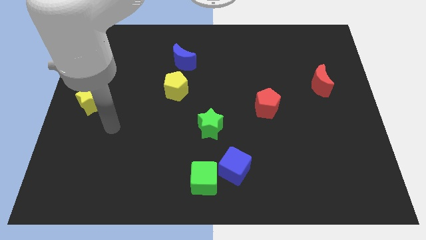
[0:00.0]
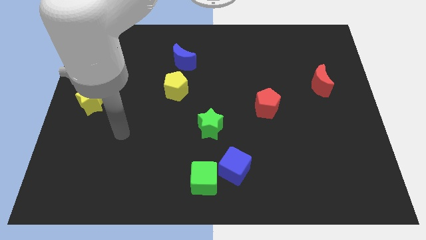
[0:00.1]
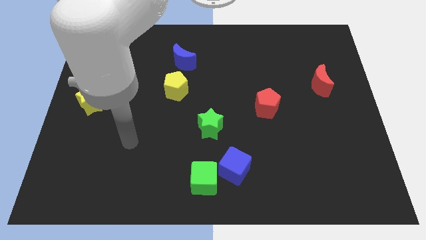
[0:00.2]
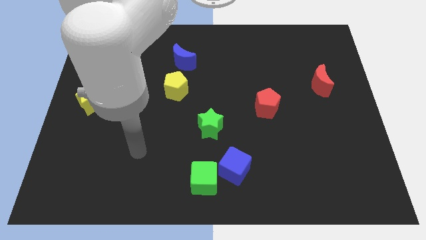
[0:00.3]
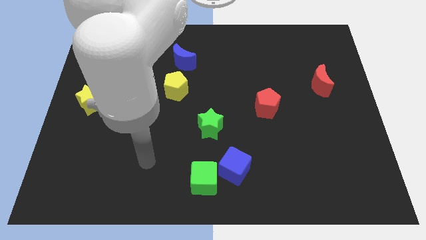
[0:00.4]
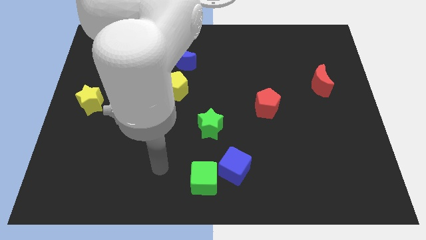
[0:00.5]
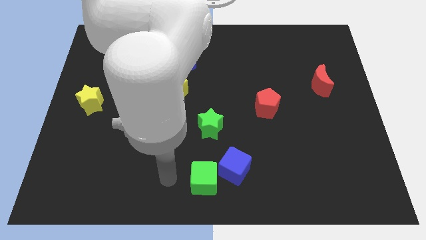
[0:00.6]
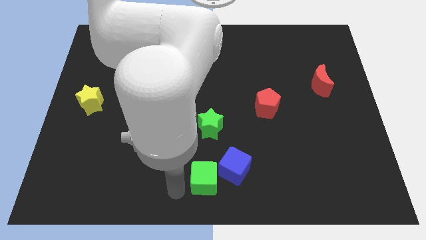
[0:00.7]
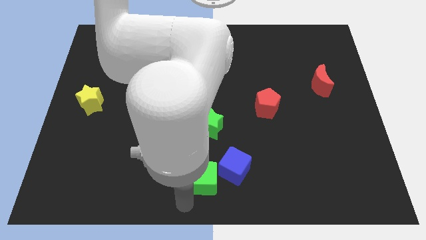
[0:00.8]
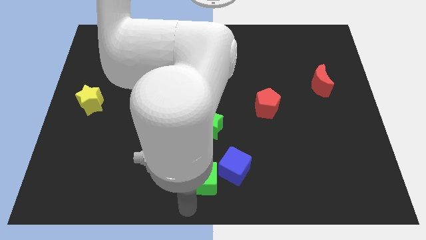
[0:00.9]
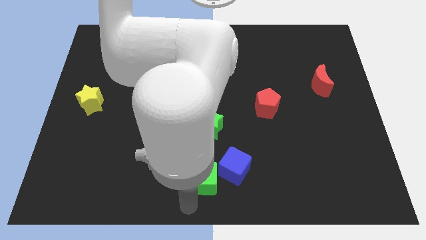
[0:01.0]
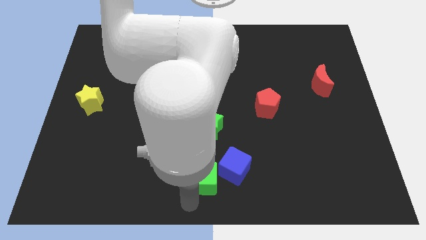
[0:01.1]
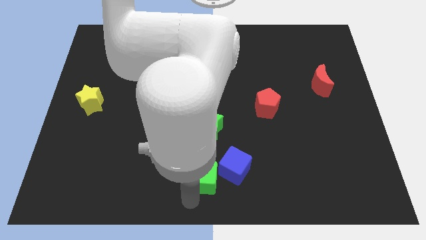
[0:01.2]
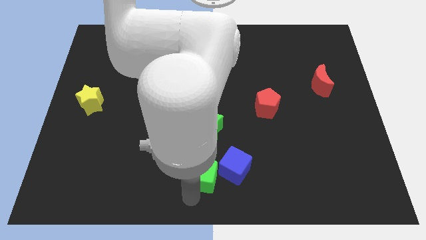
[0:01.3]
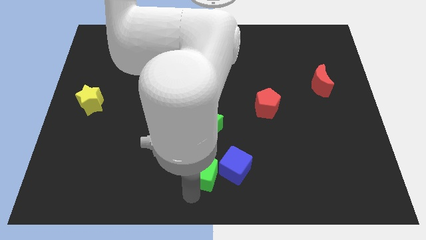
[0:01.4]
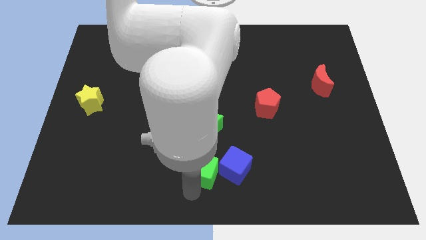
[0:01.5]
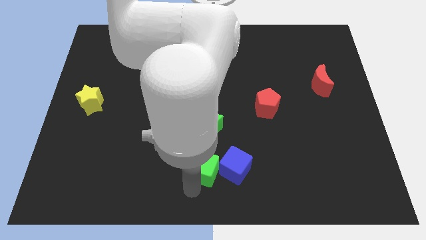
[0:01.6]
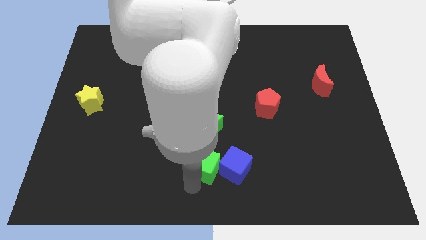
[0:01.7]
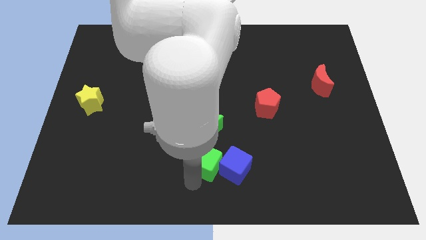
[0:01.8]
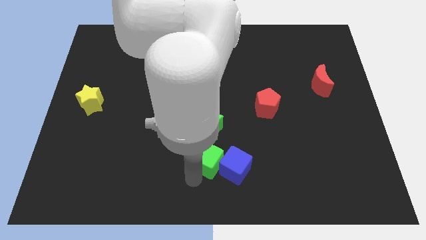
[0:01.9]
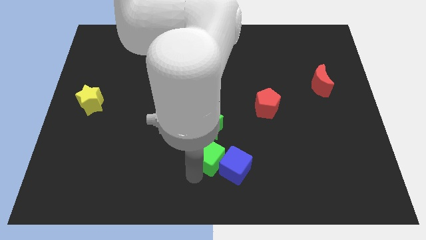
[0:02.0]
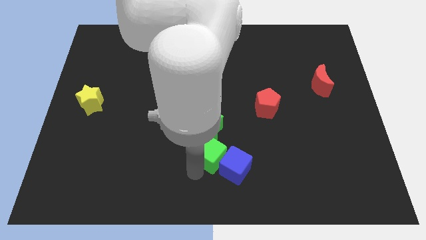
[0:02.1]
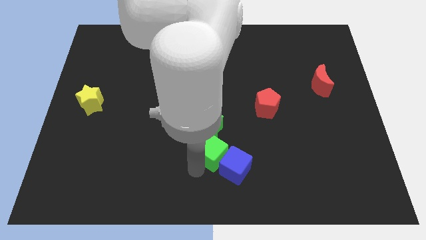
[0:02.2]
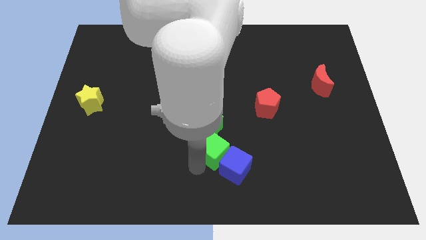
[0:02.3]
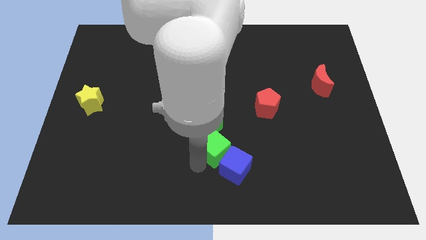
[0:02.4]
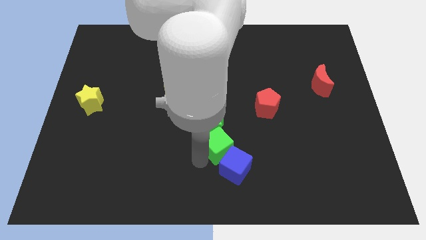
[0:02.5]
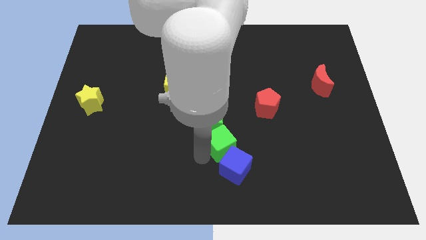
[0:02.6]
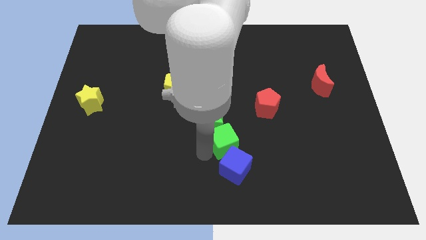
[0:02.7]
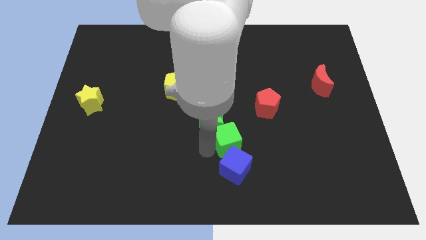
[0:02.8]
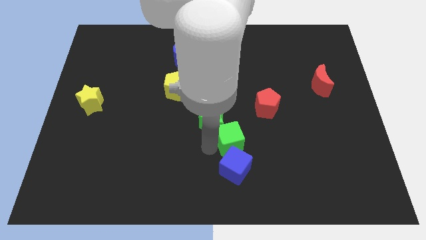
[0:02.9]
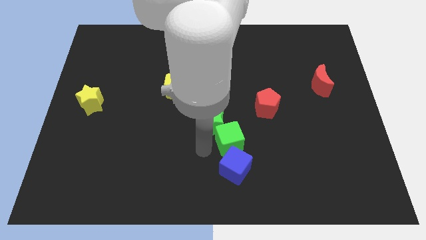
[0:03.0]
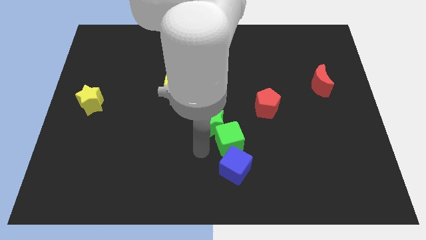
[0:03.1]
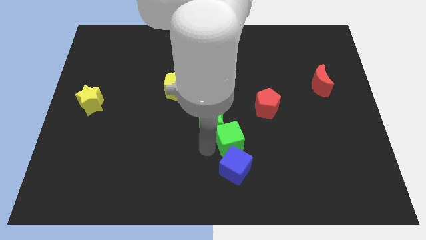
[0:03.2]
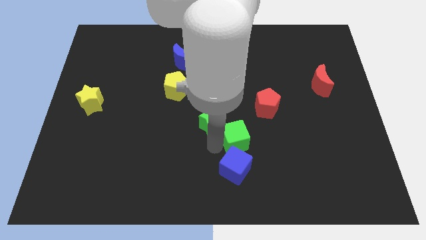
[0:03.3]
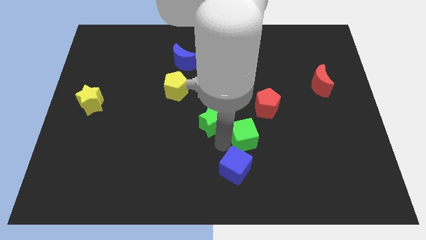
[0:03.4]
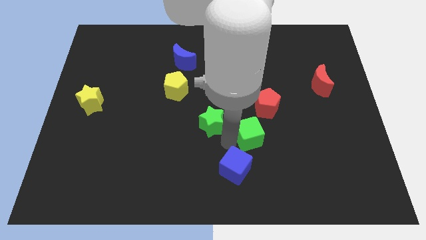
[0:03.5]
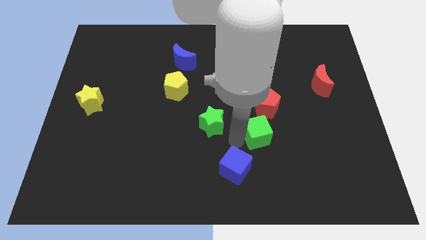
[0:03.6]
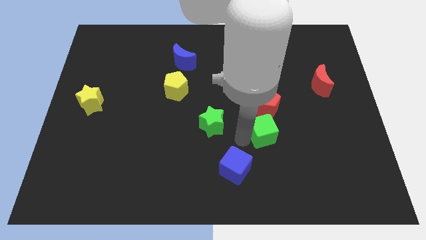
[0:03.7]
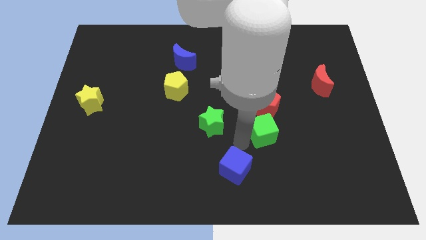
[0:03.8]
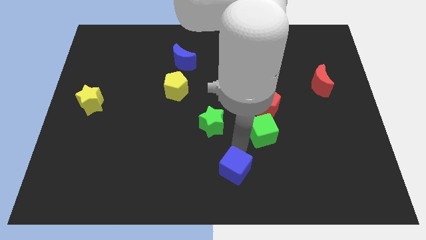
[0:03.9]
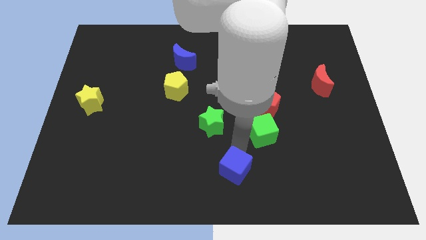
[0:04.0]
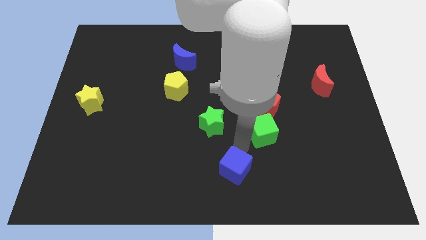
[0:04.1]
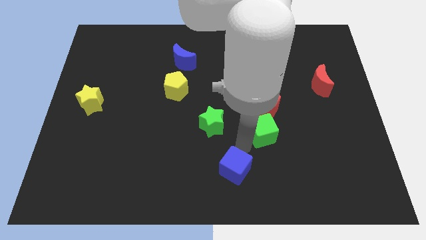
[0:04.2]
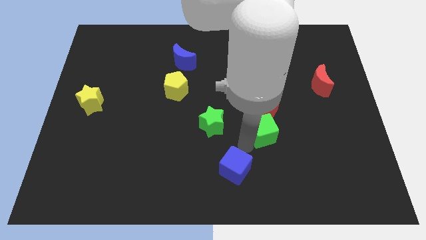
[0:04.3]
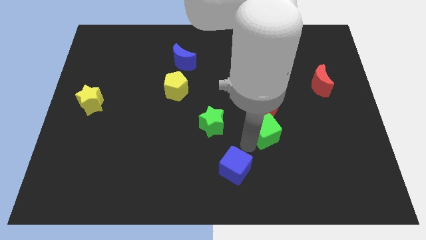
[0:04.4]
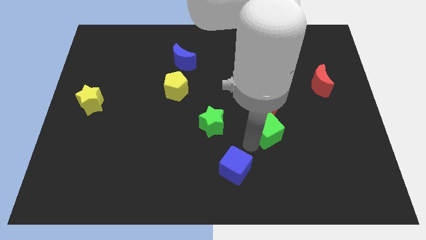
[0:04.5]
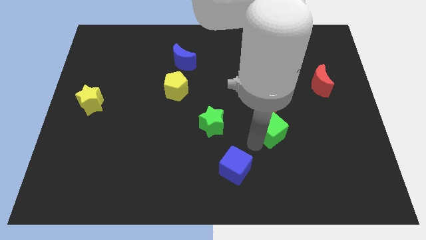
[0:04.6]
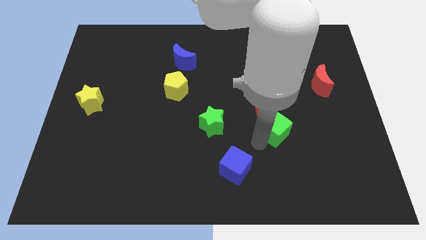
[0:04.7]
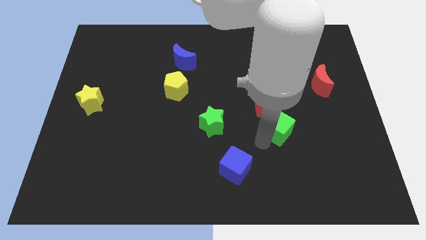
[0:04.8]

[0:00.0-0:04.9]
push the green cube up and right

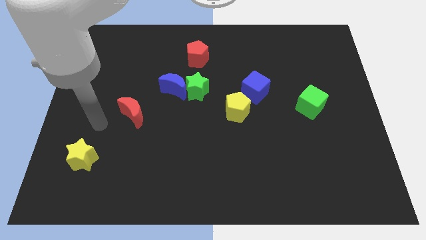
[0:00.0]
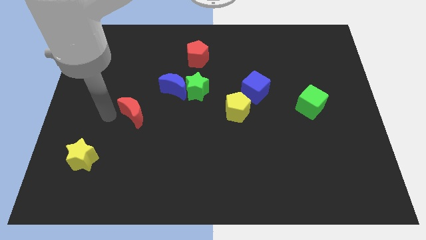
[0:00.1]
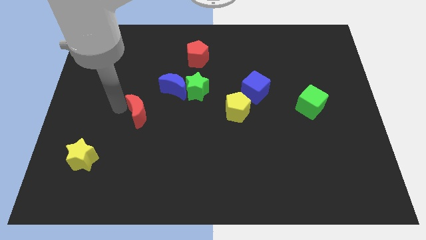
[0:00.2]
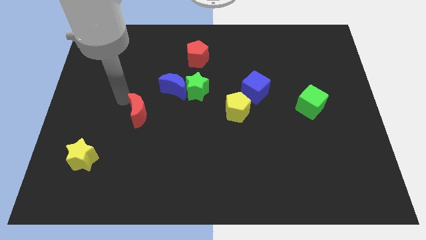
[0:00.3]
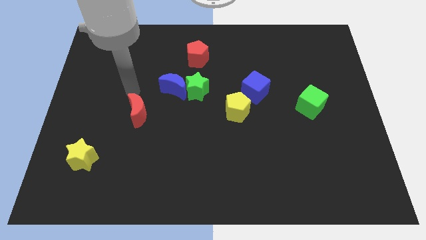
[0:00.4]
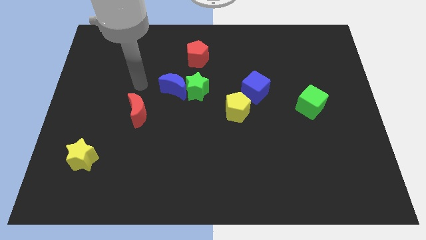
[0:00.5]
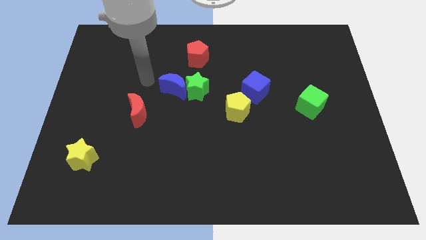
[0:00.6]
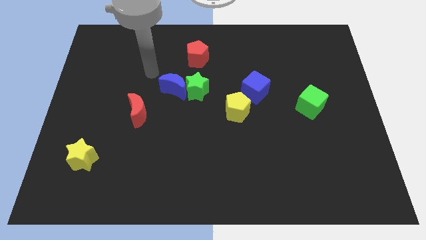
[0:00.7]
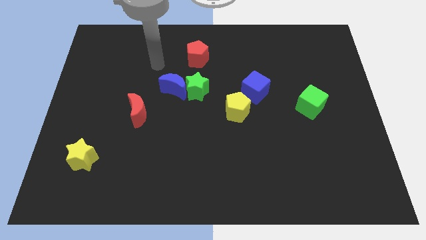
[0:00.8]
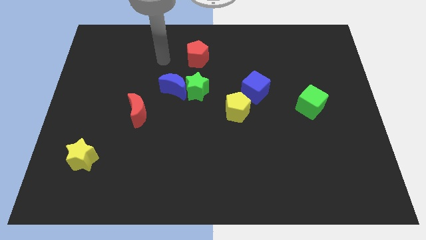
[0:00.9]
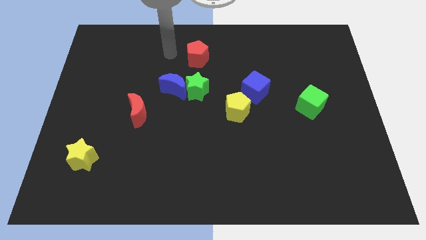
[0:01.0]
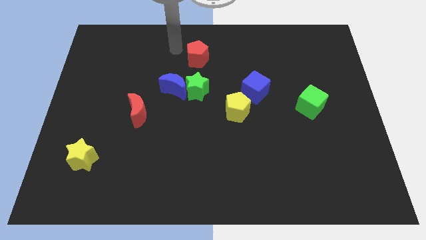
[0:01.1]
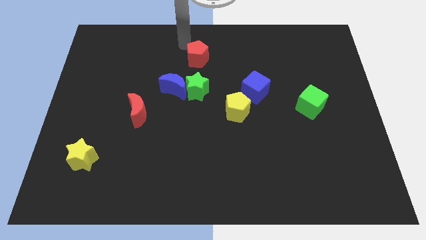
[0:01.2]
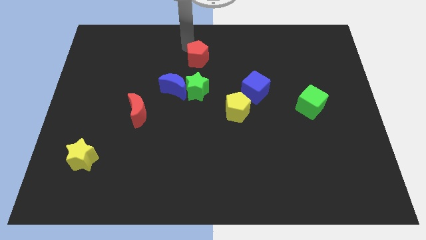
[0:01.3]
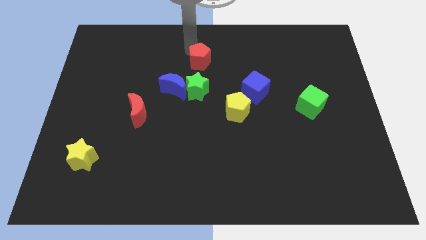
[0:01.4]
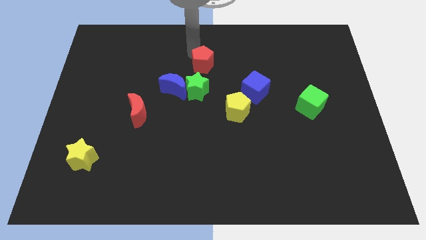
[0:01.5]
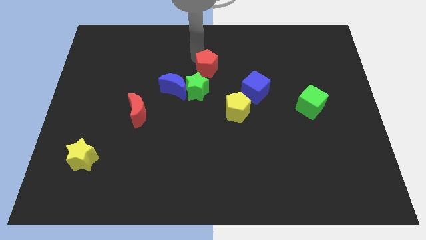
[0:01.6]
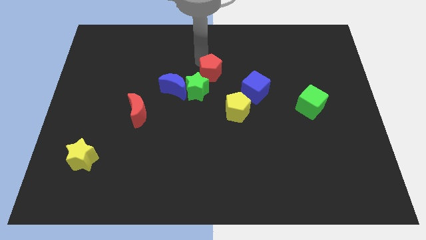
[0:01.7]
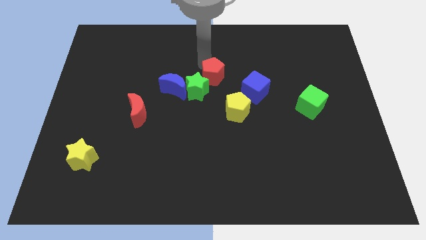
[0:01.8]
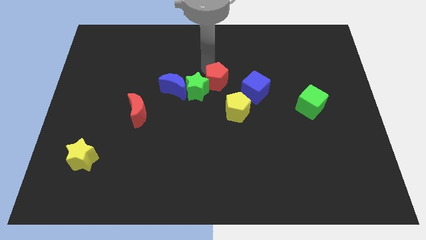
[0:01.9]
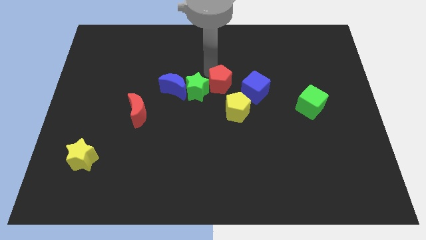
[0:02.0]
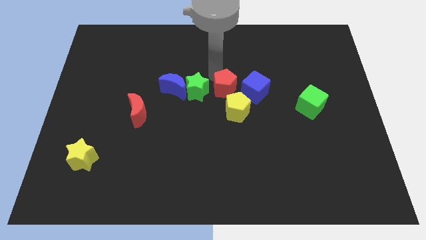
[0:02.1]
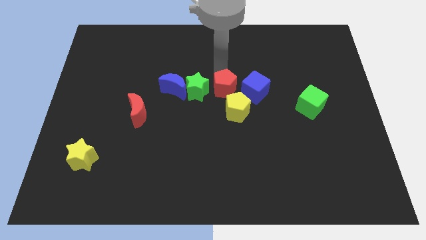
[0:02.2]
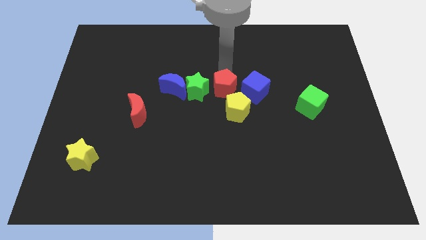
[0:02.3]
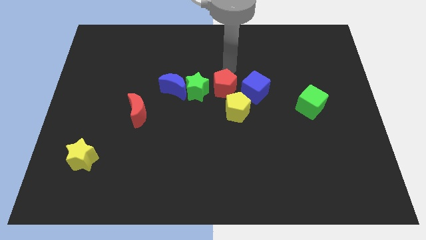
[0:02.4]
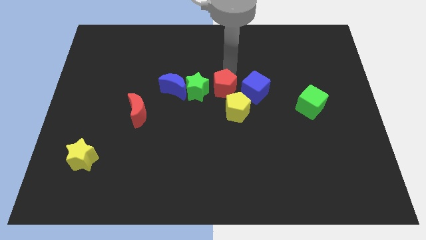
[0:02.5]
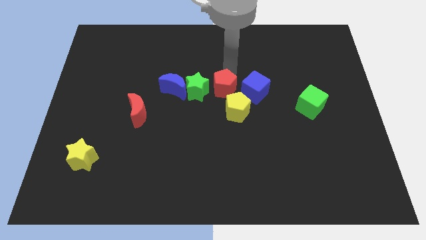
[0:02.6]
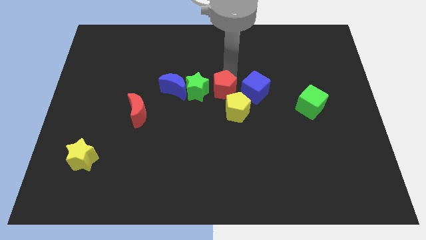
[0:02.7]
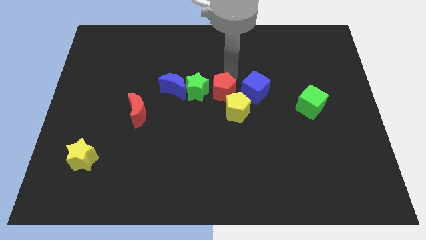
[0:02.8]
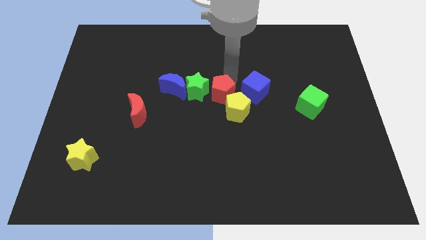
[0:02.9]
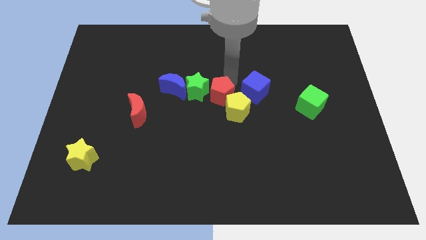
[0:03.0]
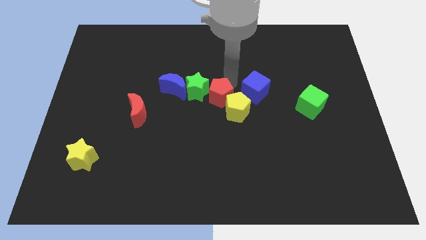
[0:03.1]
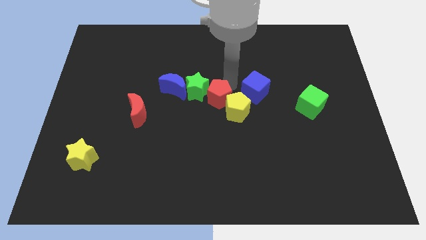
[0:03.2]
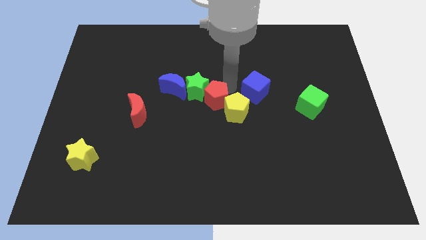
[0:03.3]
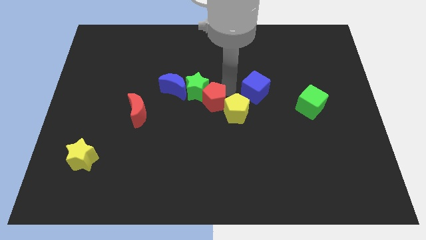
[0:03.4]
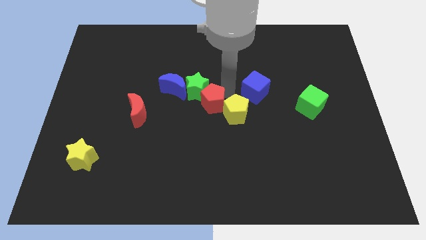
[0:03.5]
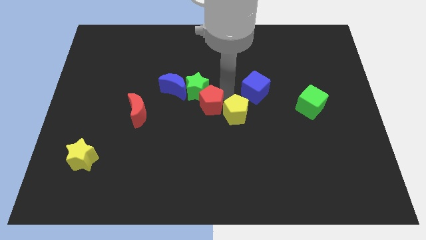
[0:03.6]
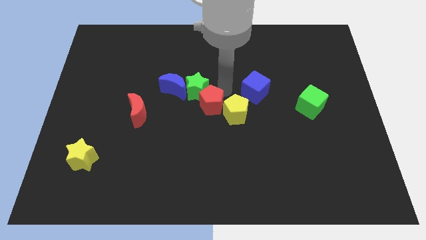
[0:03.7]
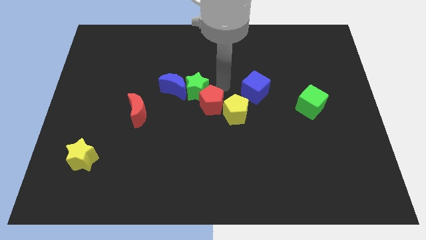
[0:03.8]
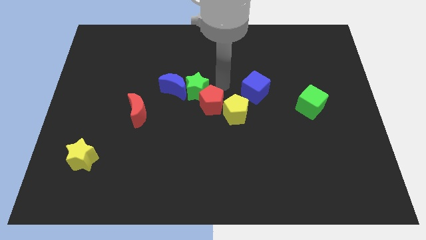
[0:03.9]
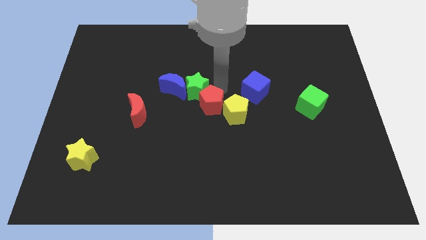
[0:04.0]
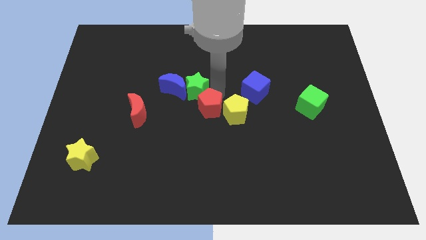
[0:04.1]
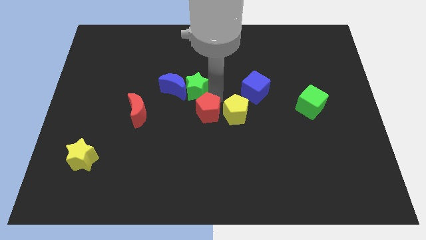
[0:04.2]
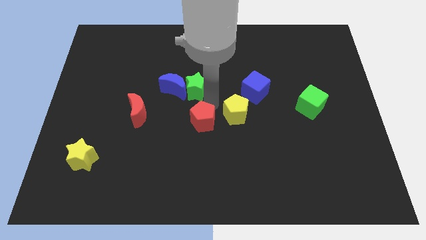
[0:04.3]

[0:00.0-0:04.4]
slide the red pentagon down
